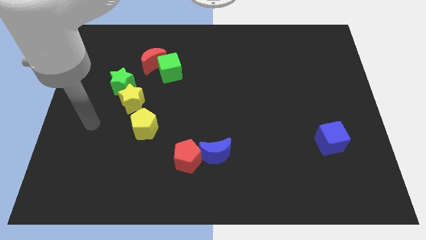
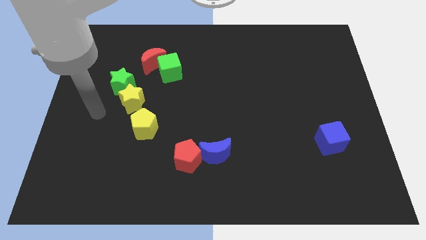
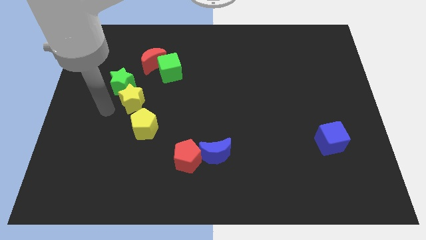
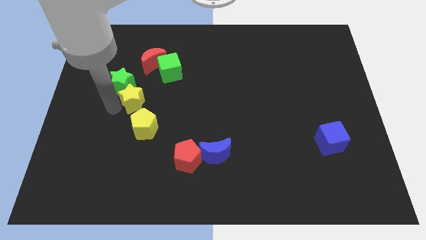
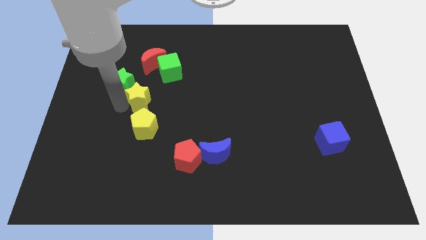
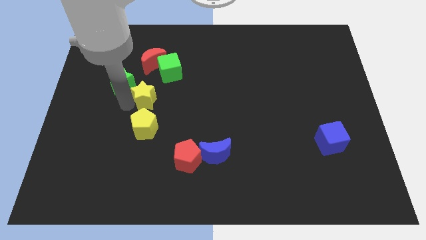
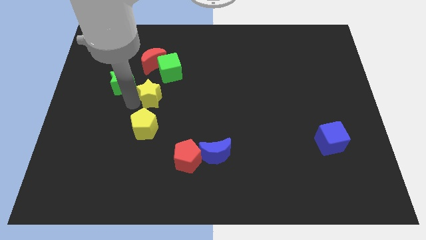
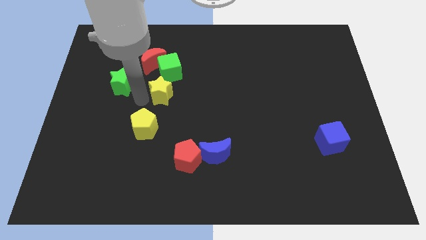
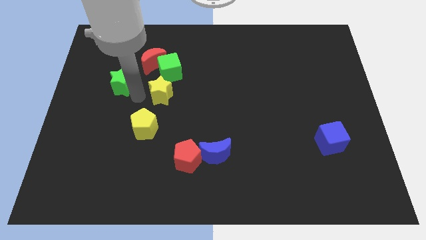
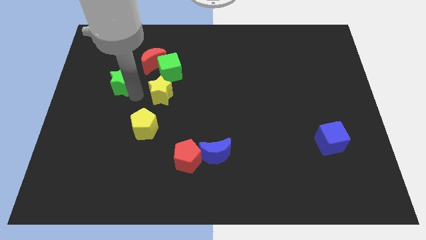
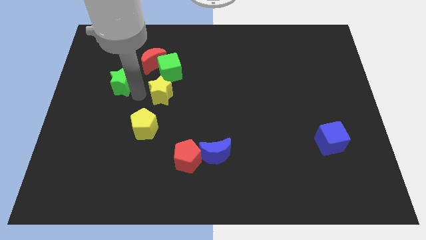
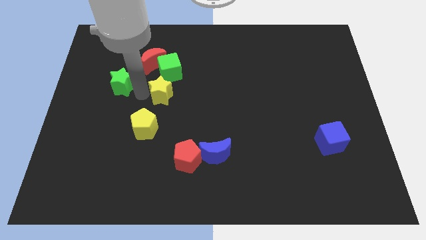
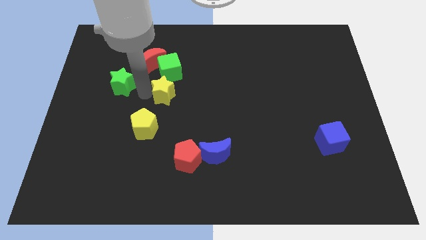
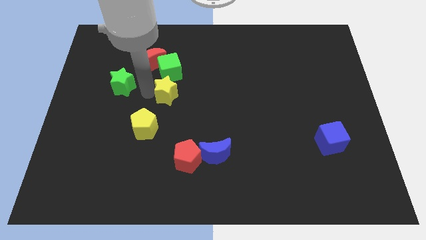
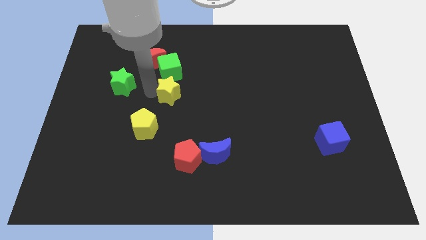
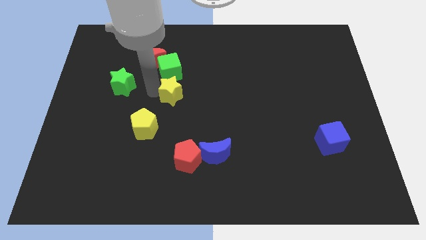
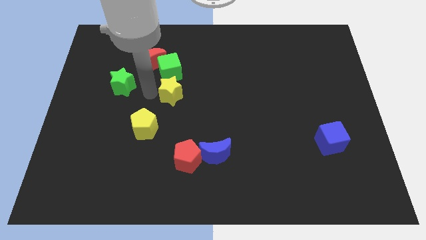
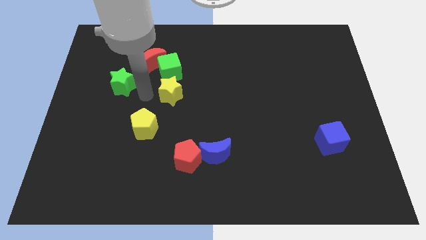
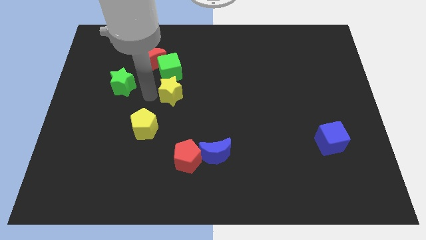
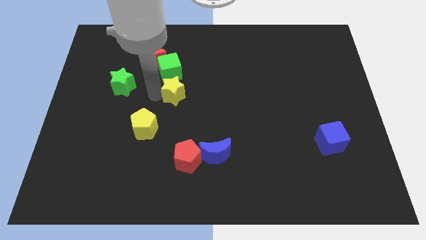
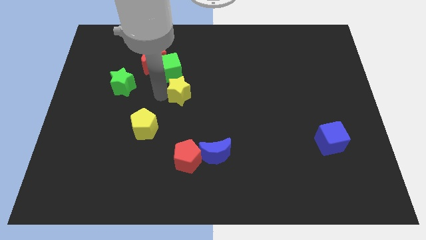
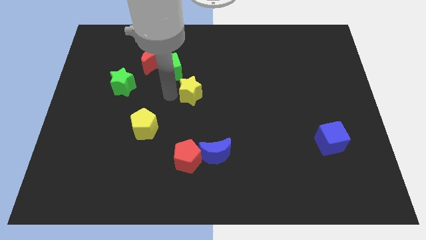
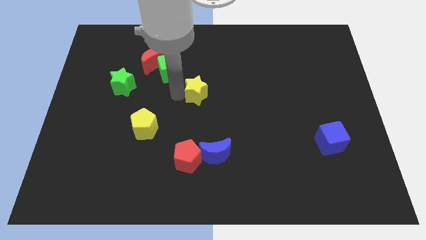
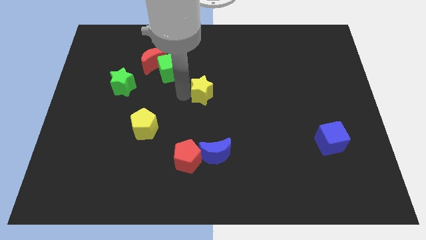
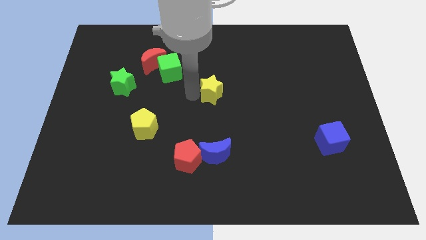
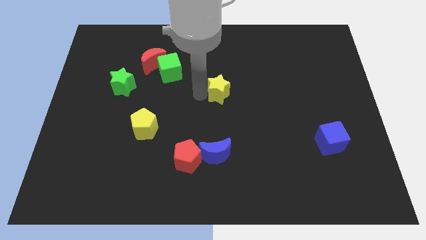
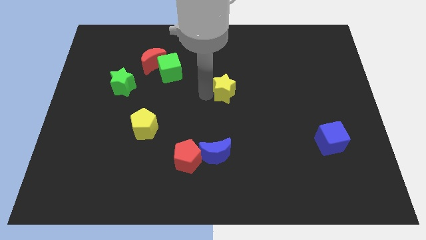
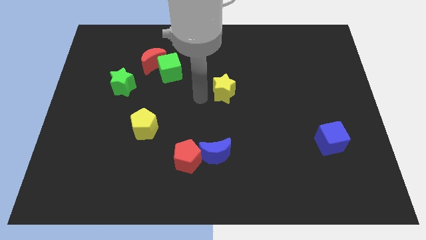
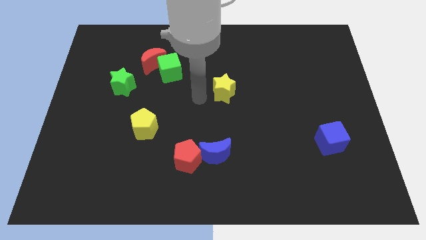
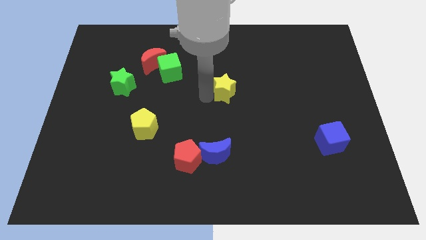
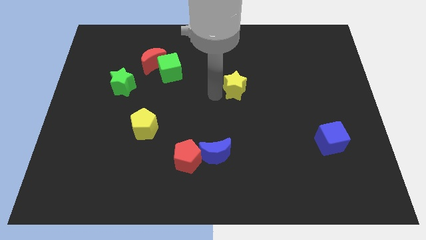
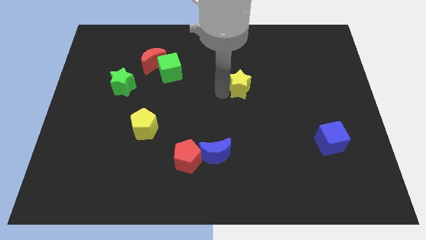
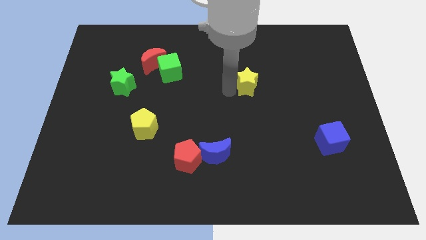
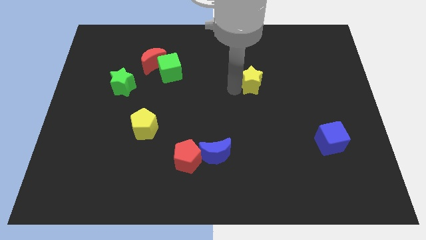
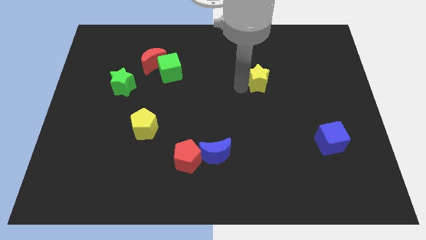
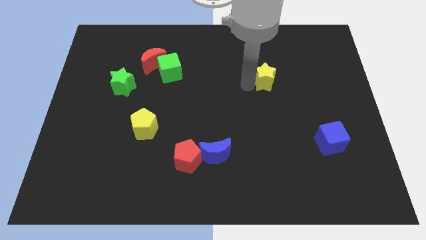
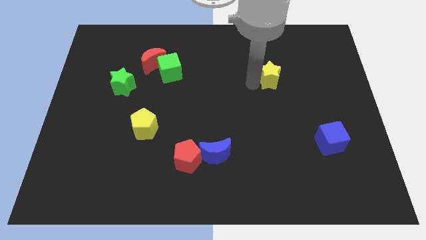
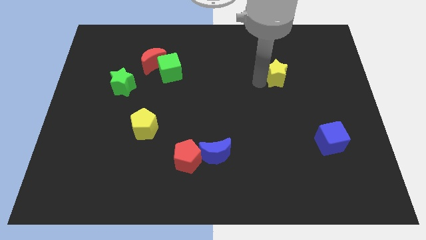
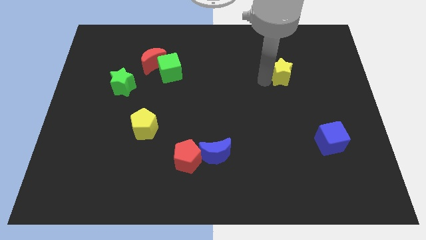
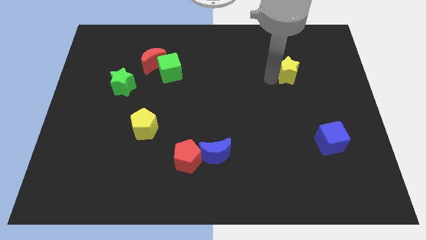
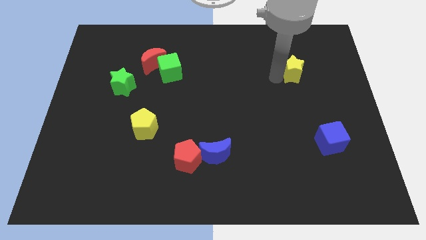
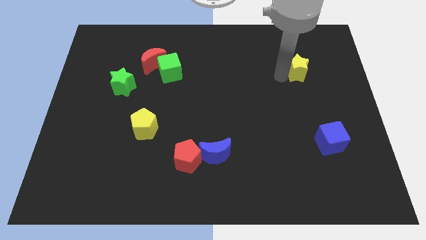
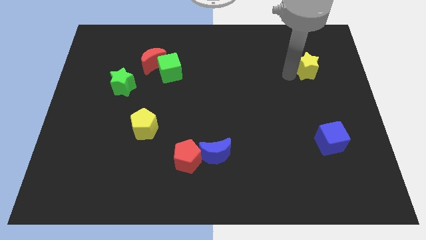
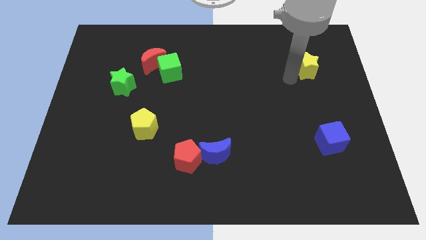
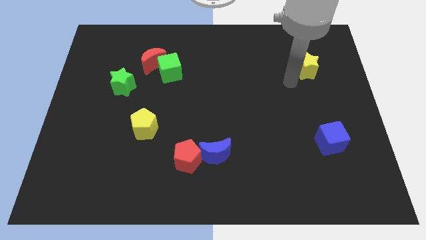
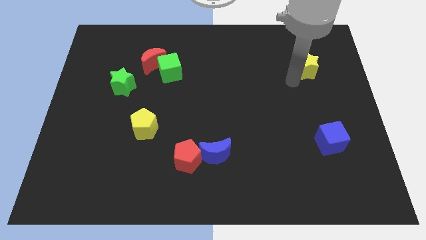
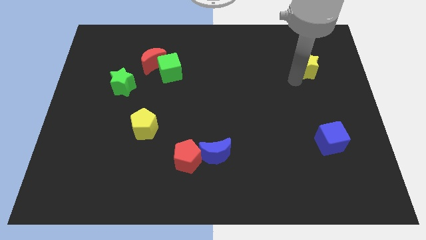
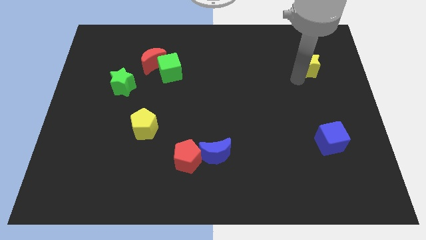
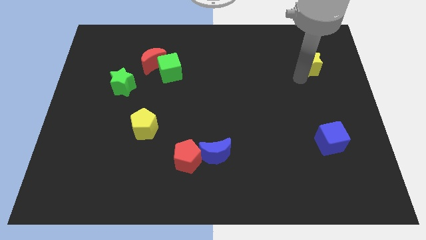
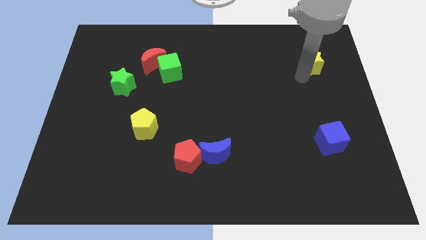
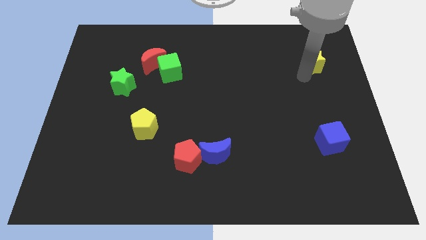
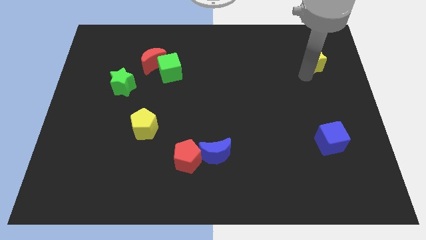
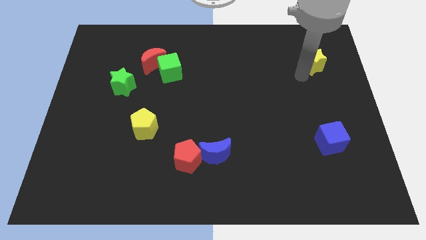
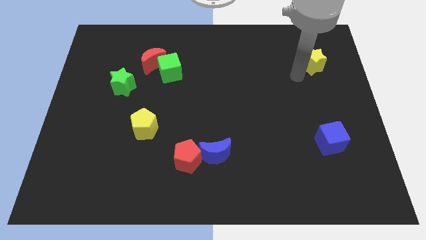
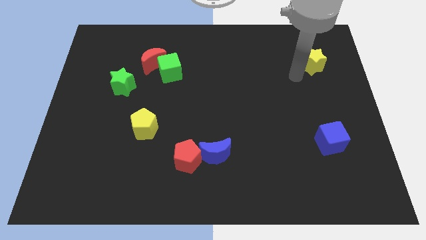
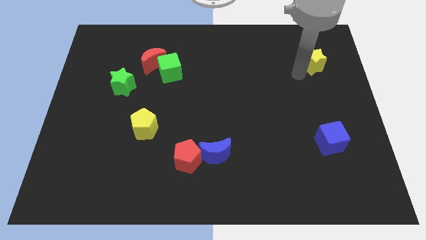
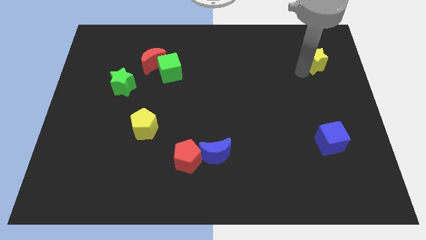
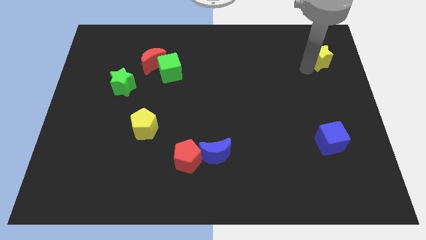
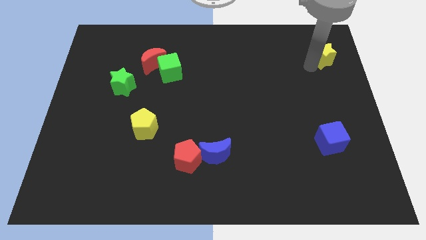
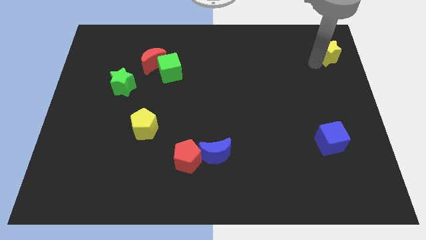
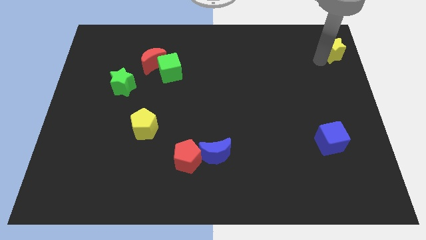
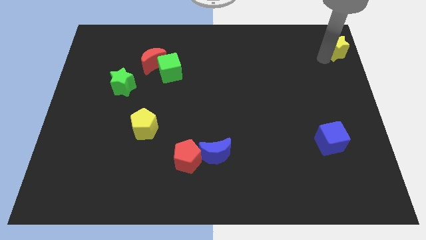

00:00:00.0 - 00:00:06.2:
slide the yellow star to the top right corner

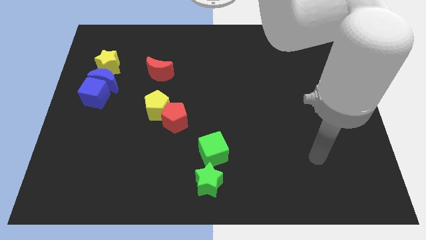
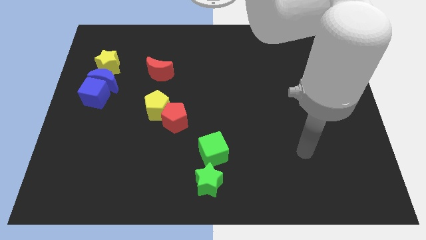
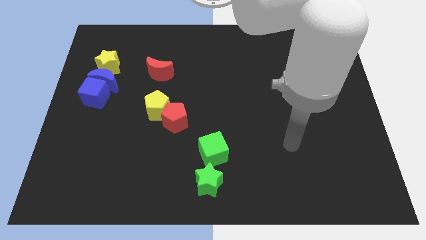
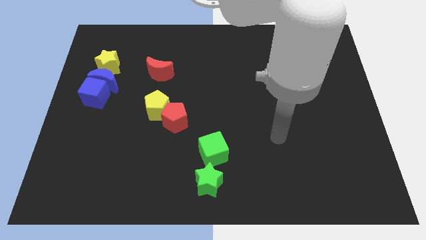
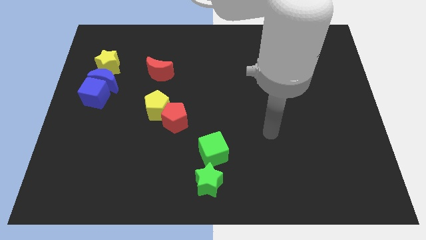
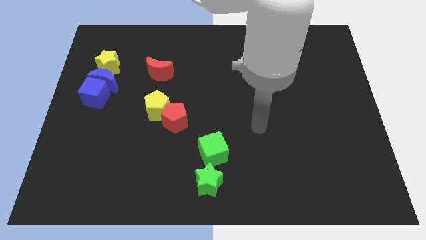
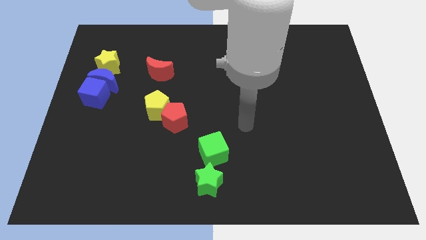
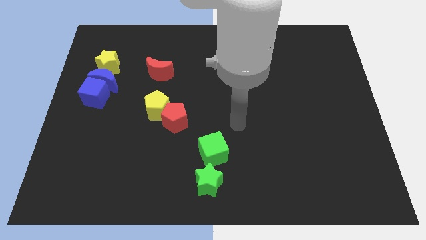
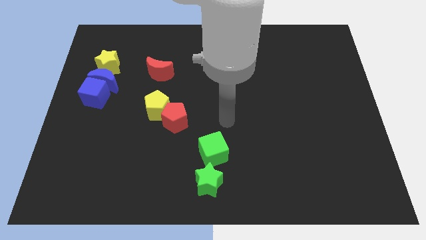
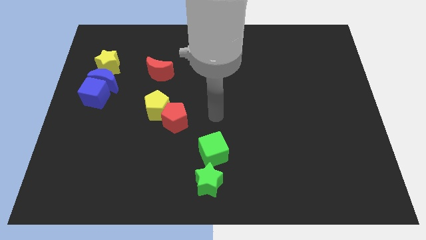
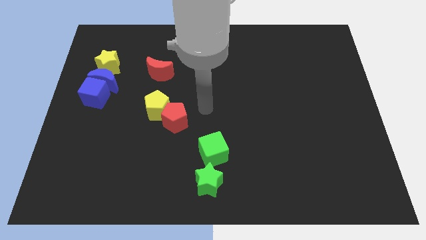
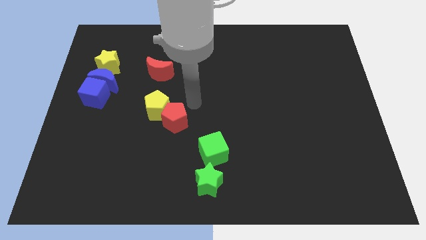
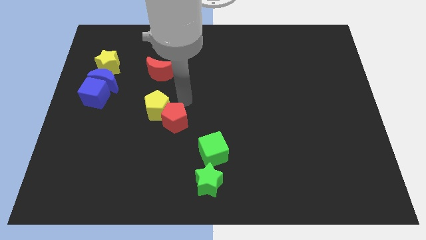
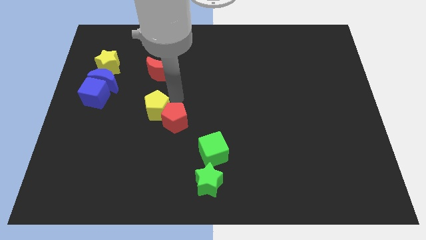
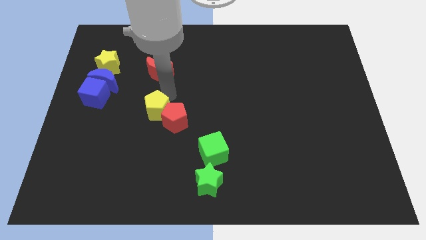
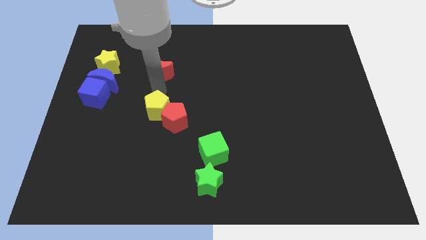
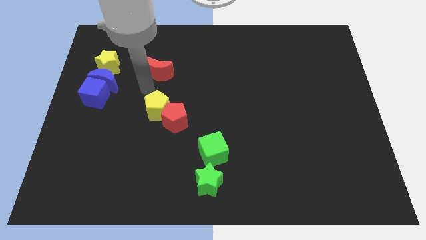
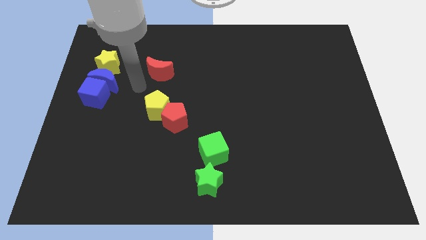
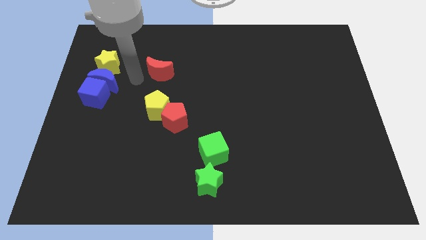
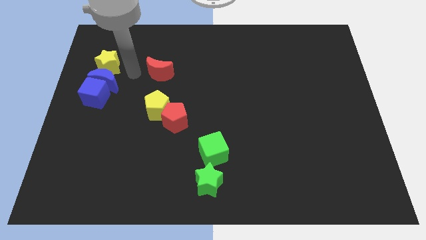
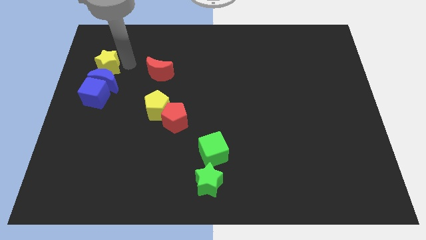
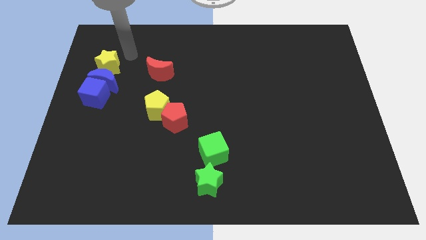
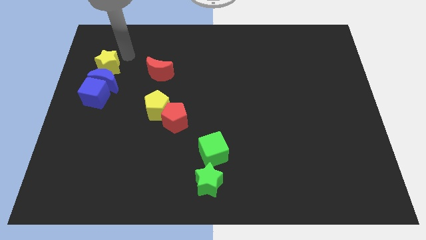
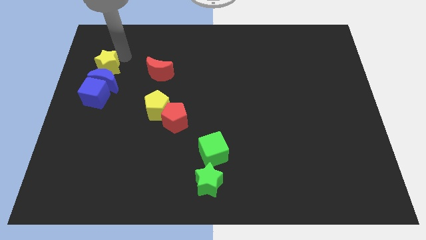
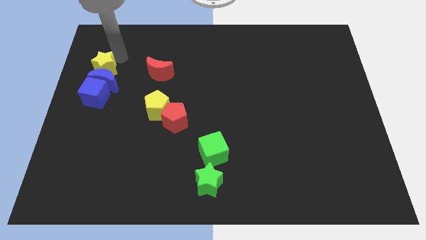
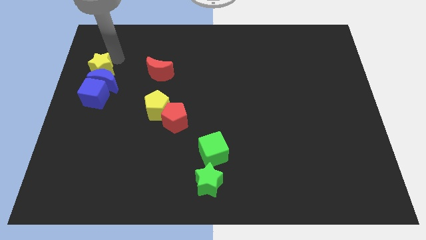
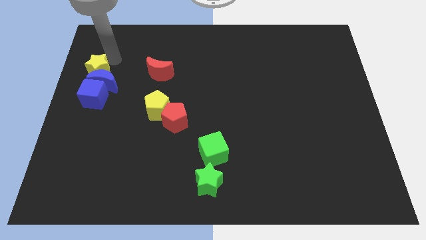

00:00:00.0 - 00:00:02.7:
slide the yellow star to the left side of the board
